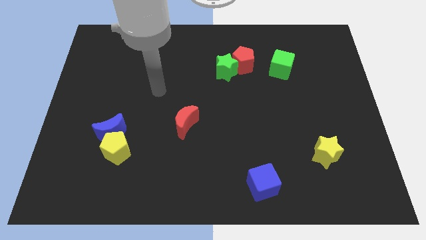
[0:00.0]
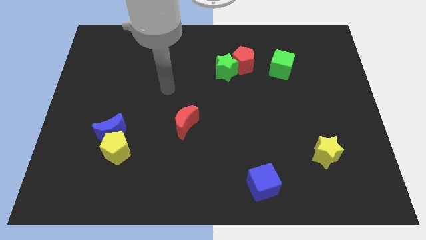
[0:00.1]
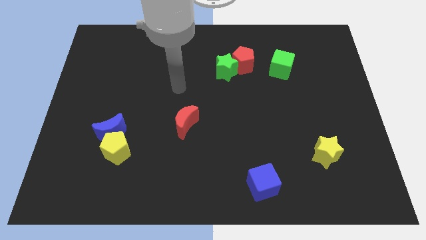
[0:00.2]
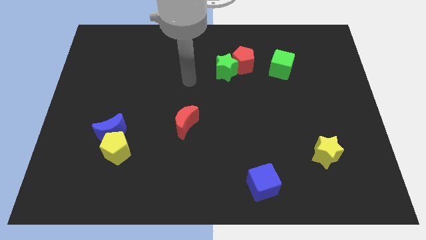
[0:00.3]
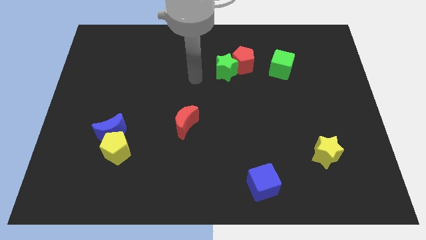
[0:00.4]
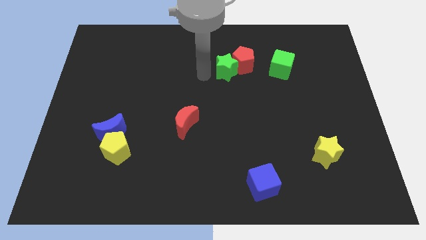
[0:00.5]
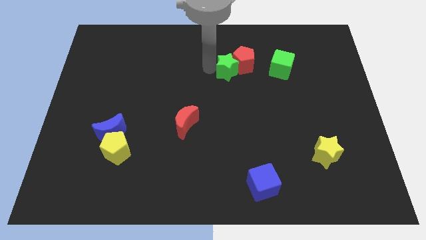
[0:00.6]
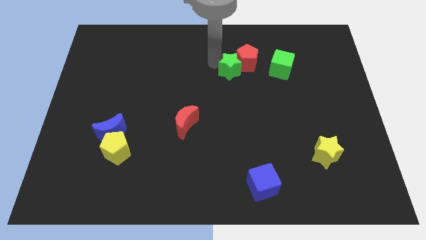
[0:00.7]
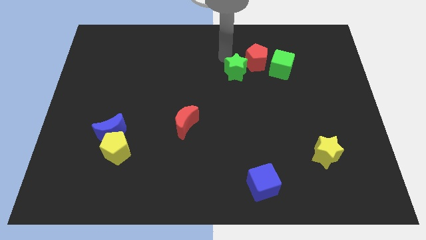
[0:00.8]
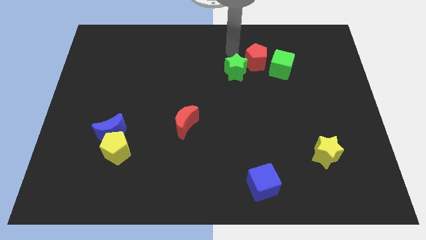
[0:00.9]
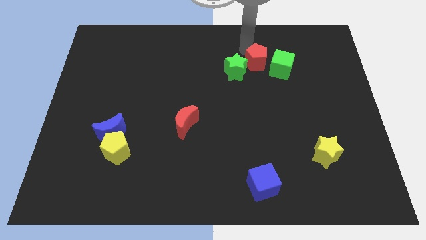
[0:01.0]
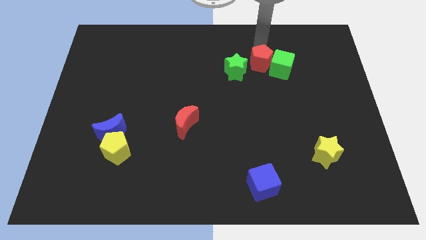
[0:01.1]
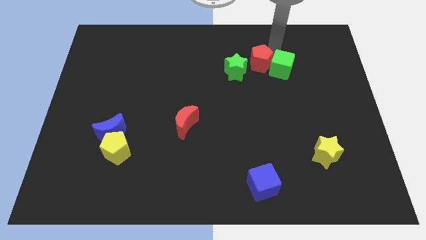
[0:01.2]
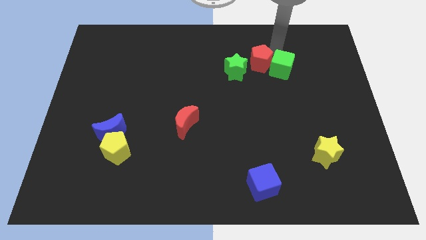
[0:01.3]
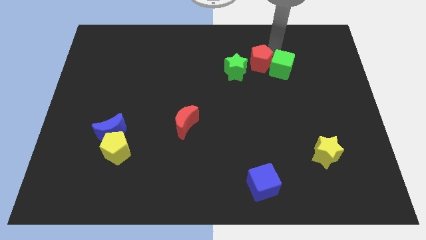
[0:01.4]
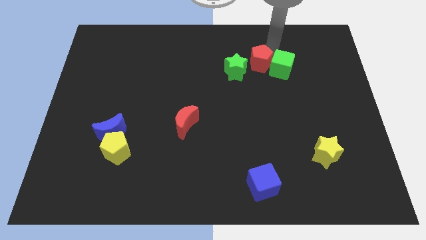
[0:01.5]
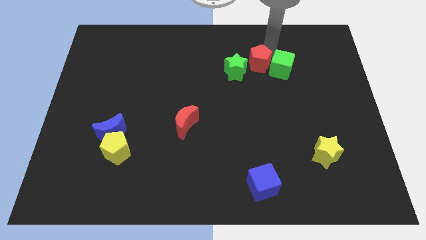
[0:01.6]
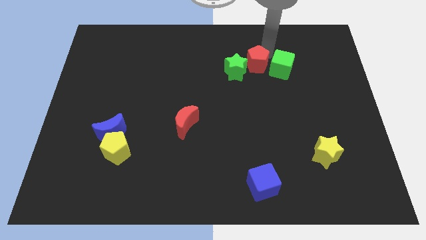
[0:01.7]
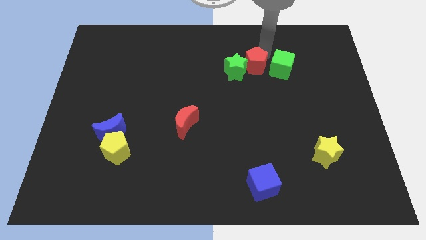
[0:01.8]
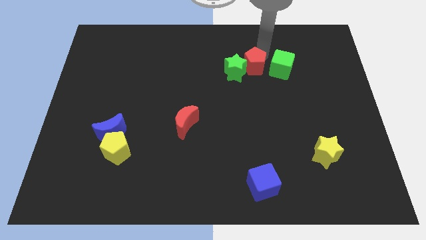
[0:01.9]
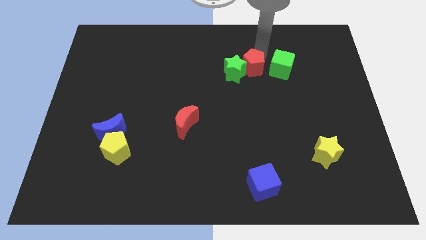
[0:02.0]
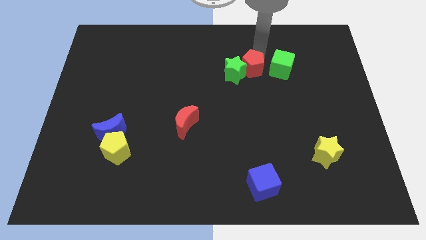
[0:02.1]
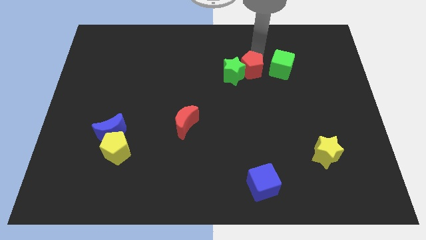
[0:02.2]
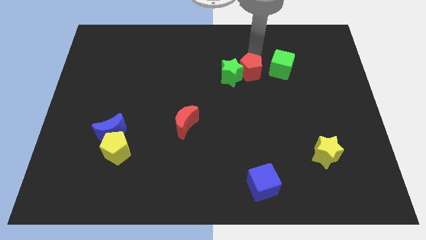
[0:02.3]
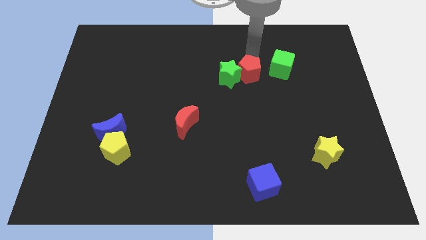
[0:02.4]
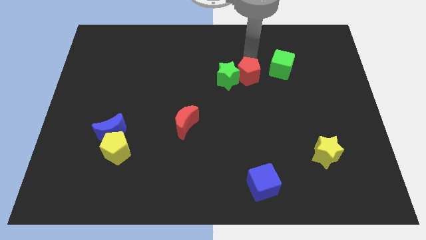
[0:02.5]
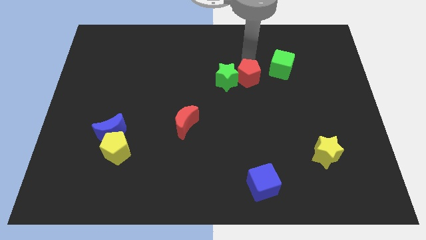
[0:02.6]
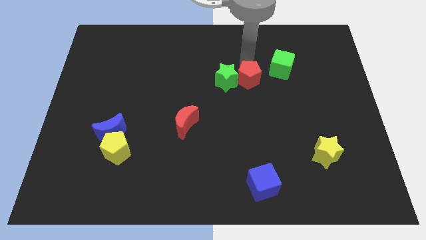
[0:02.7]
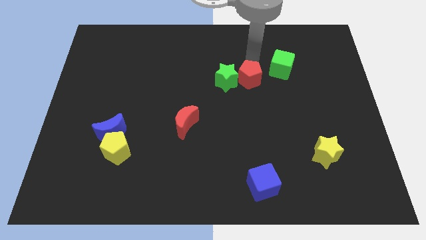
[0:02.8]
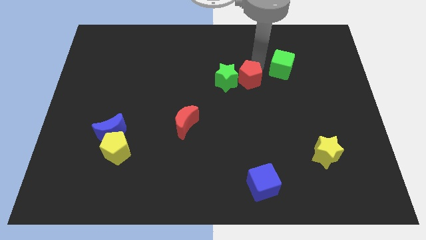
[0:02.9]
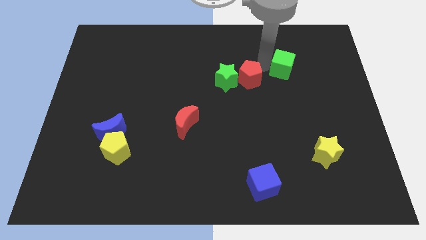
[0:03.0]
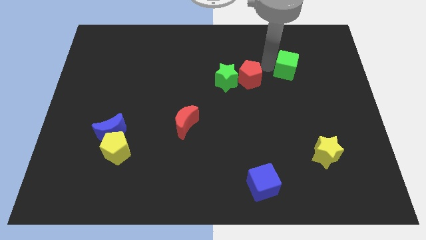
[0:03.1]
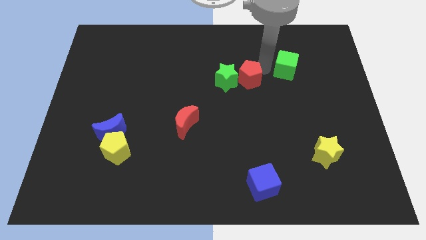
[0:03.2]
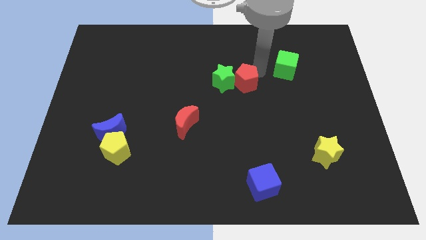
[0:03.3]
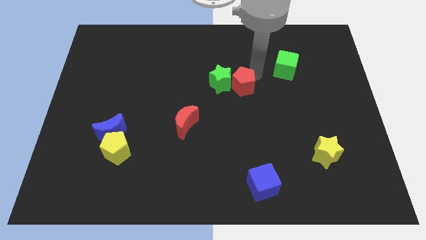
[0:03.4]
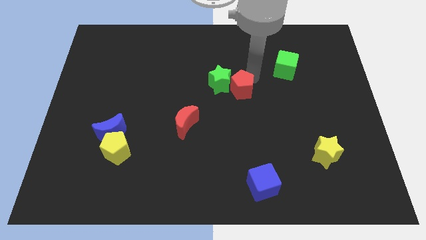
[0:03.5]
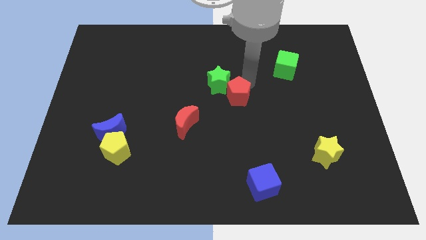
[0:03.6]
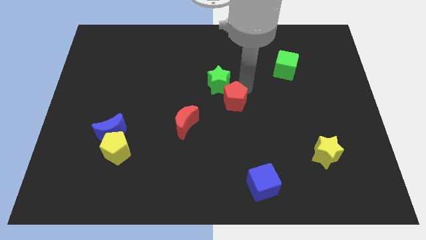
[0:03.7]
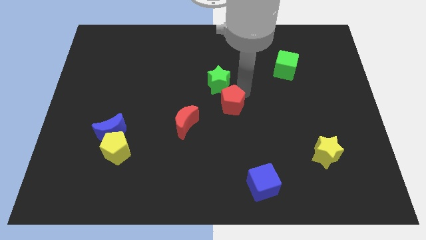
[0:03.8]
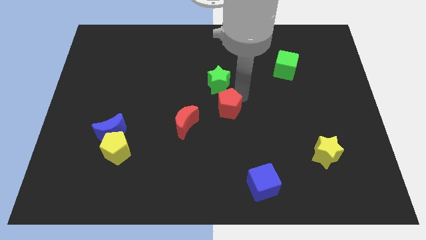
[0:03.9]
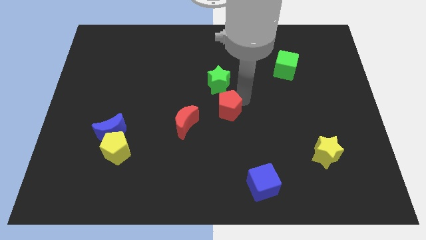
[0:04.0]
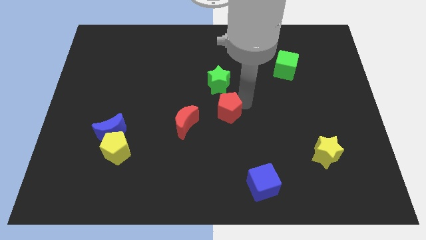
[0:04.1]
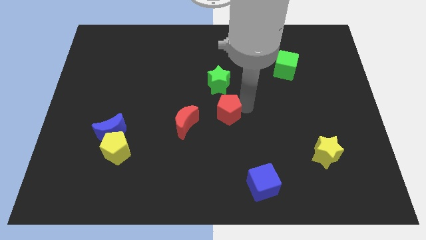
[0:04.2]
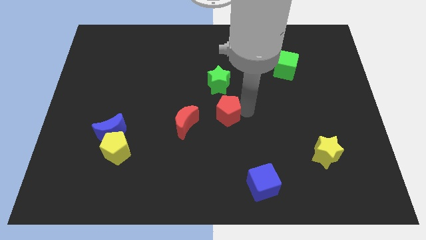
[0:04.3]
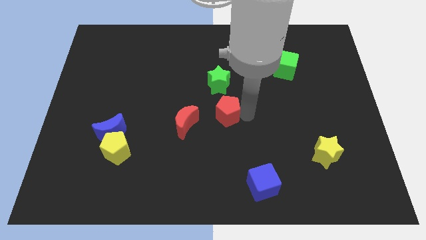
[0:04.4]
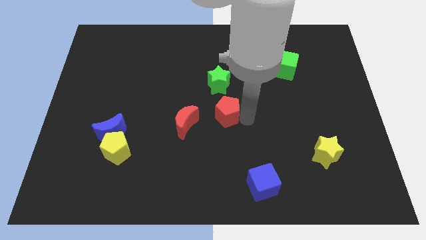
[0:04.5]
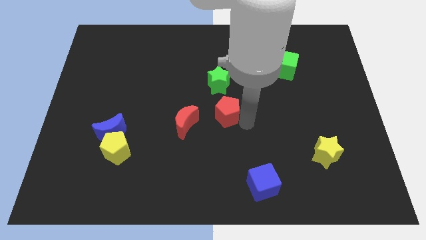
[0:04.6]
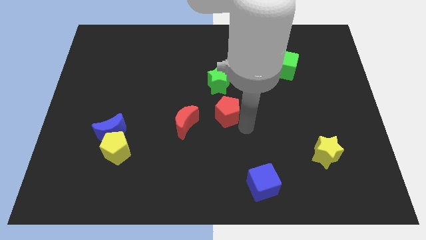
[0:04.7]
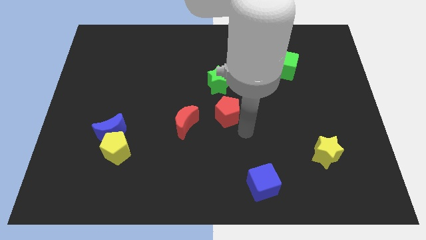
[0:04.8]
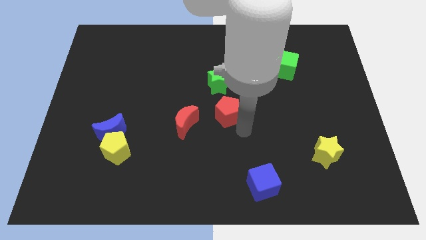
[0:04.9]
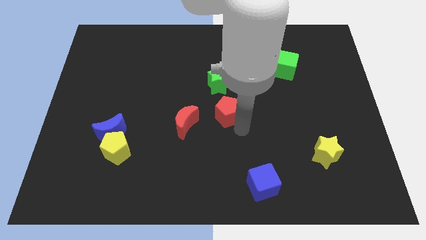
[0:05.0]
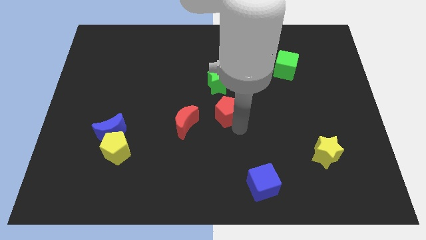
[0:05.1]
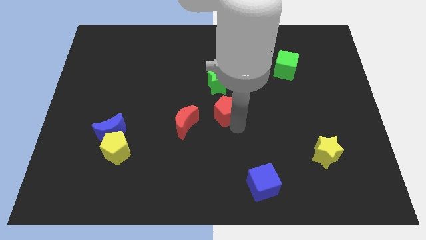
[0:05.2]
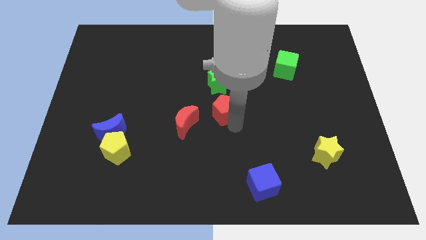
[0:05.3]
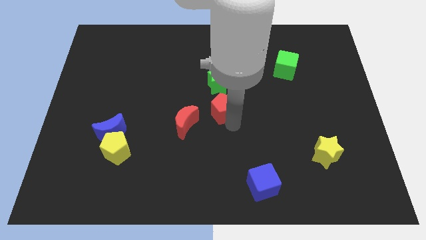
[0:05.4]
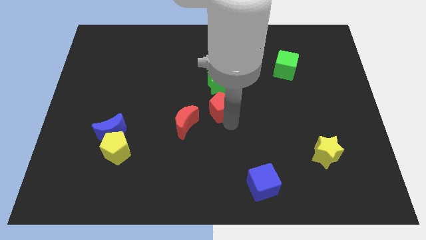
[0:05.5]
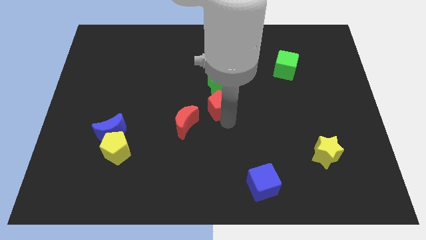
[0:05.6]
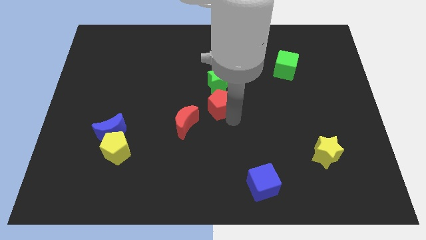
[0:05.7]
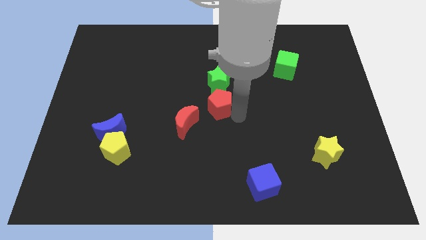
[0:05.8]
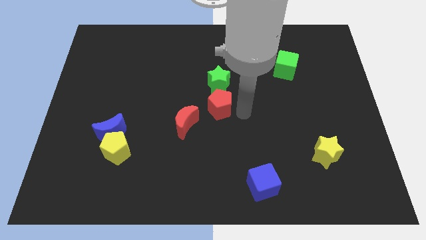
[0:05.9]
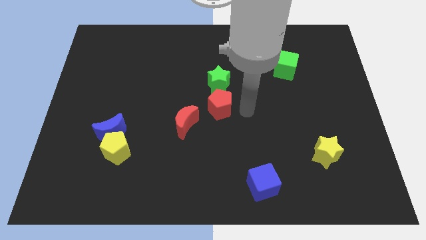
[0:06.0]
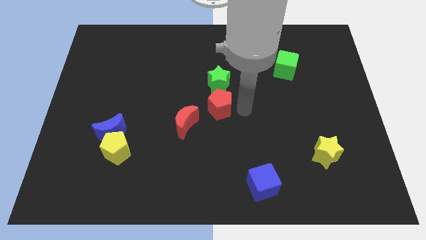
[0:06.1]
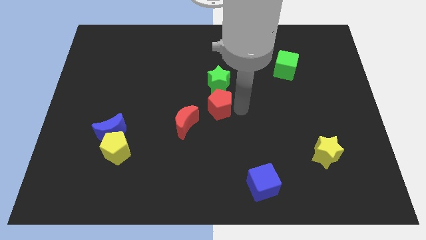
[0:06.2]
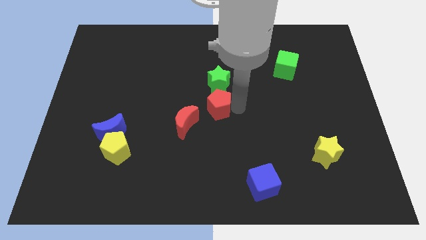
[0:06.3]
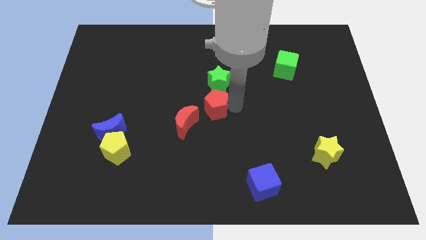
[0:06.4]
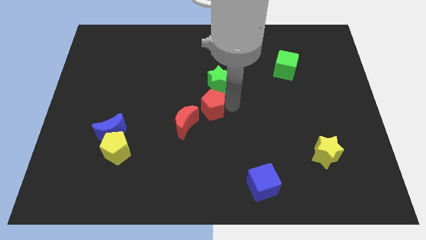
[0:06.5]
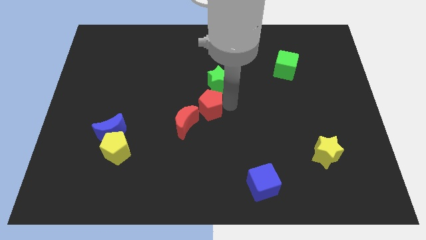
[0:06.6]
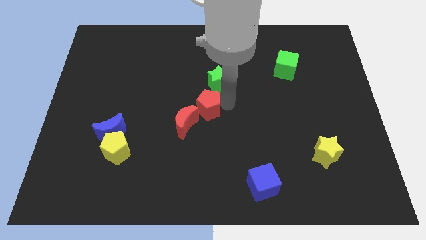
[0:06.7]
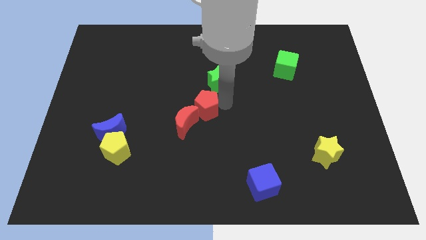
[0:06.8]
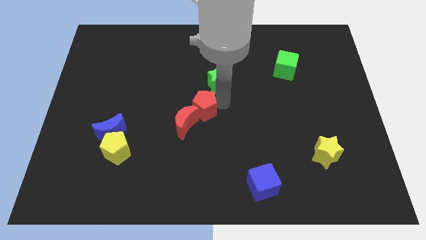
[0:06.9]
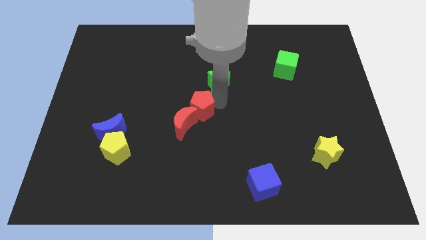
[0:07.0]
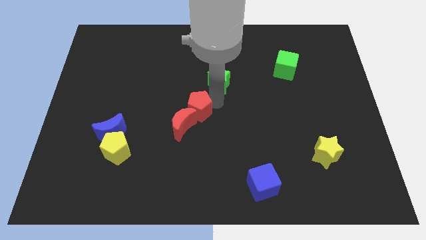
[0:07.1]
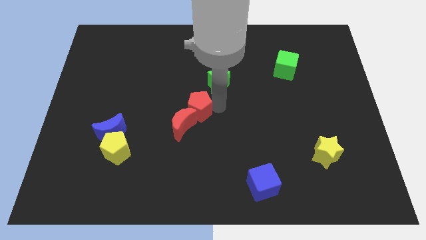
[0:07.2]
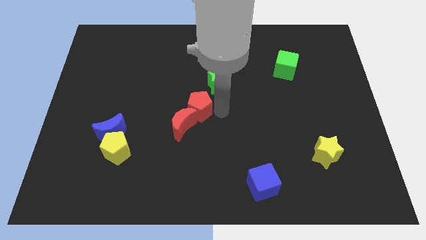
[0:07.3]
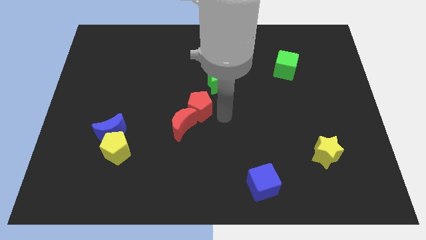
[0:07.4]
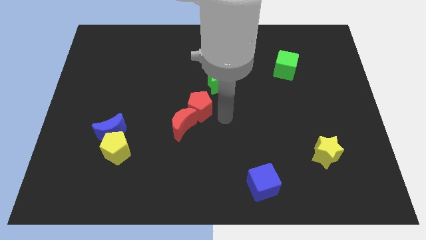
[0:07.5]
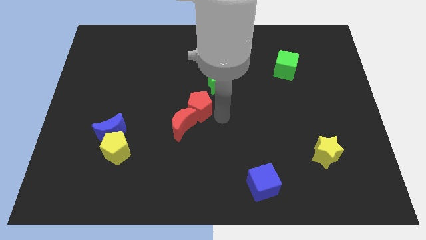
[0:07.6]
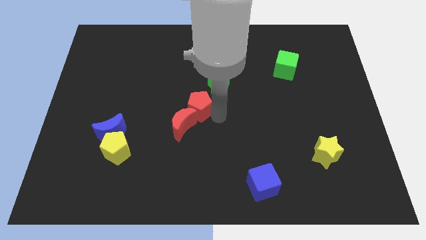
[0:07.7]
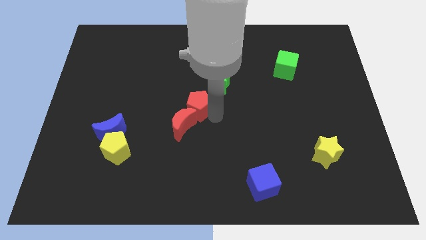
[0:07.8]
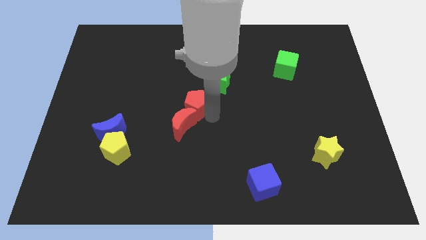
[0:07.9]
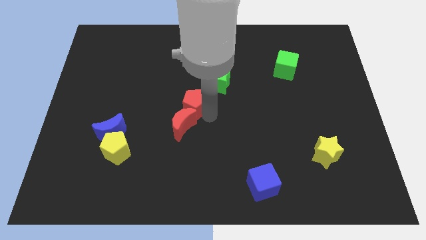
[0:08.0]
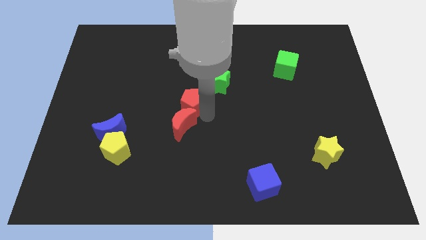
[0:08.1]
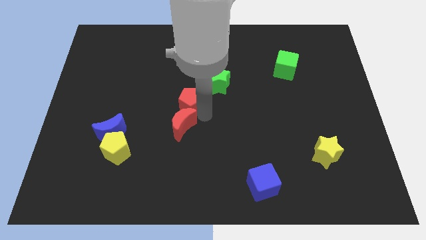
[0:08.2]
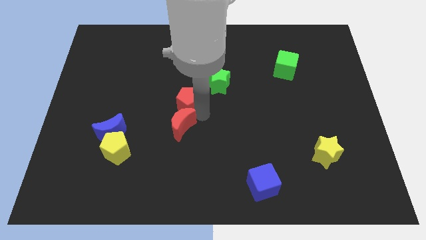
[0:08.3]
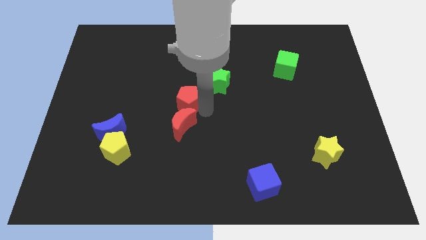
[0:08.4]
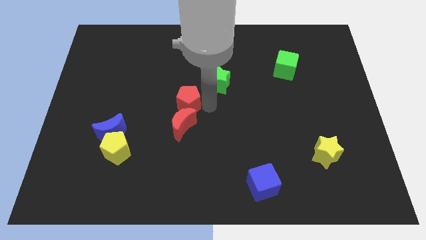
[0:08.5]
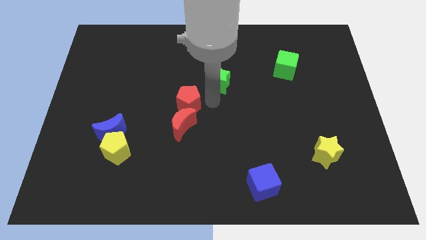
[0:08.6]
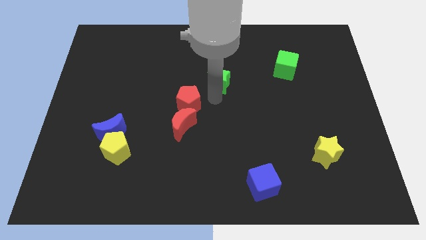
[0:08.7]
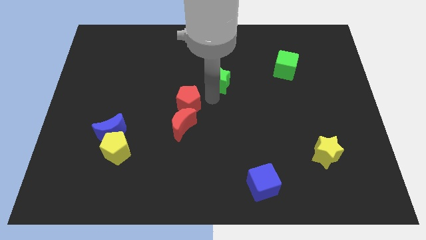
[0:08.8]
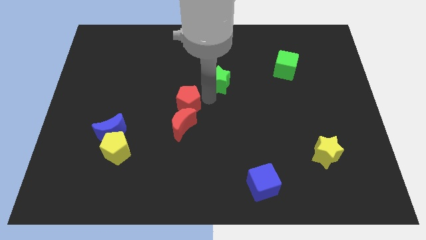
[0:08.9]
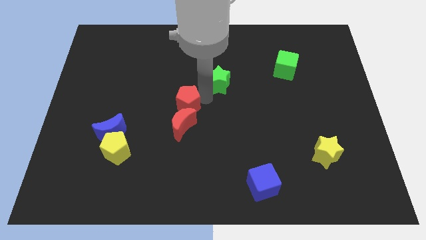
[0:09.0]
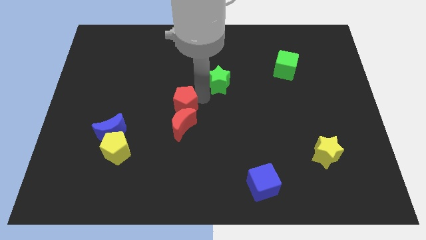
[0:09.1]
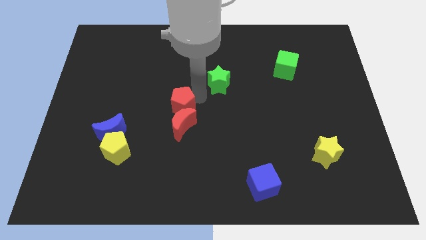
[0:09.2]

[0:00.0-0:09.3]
slide the red pentagon downwards and then to the left
